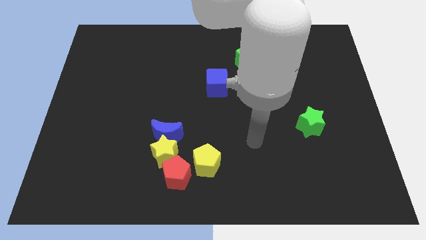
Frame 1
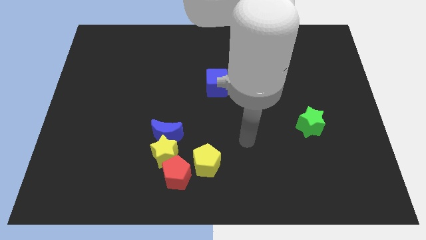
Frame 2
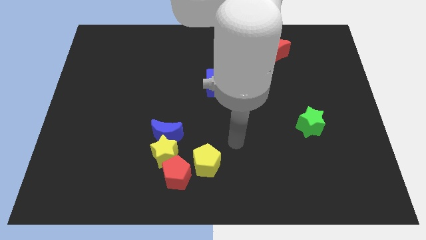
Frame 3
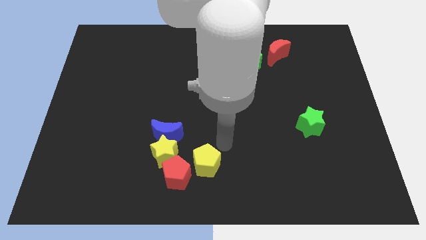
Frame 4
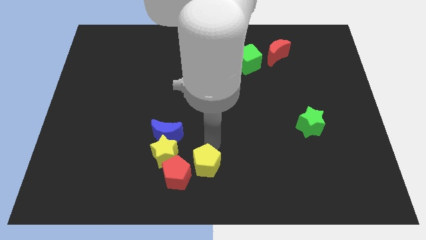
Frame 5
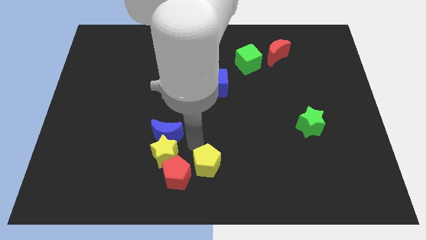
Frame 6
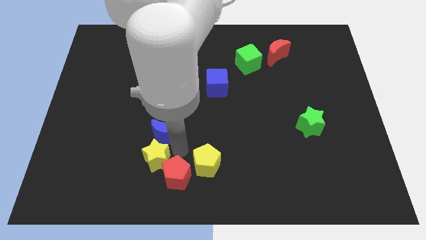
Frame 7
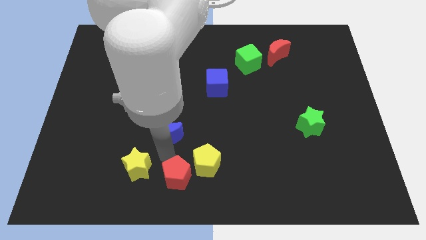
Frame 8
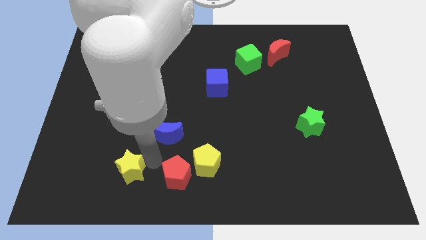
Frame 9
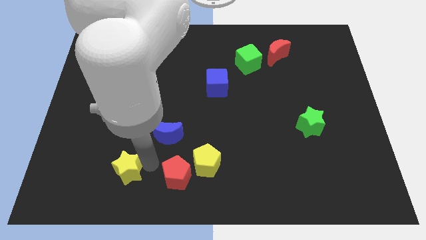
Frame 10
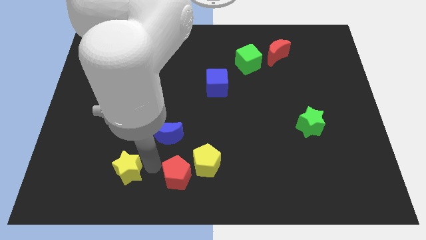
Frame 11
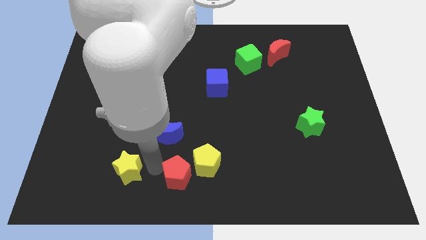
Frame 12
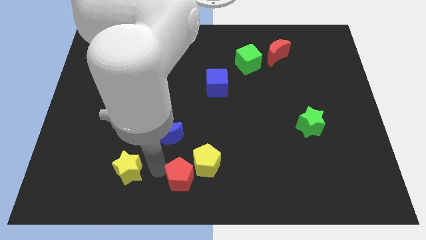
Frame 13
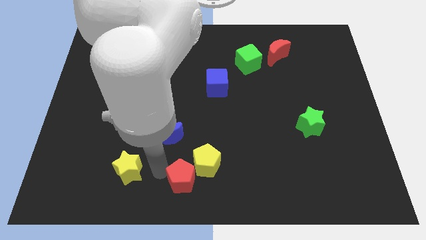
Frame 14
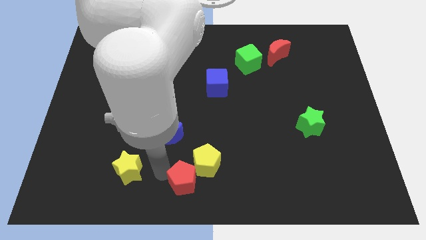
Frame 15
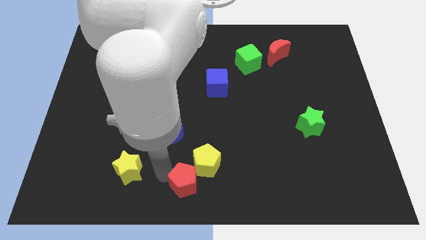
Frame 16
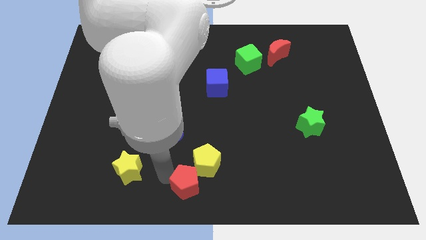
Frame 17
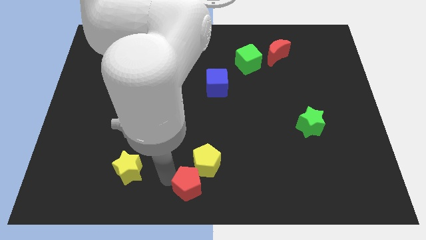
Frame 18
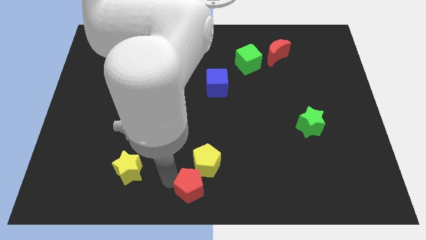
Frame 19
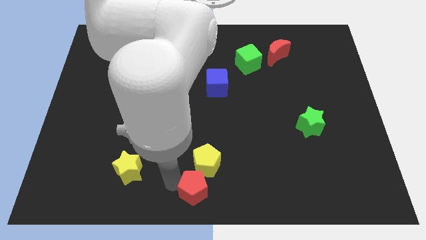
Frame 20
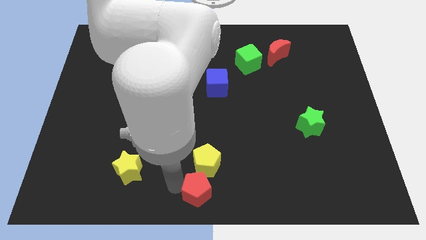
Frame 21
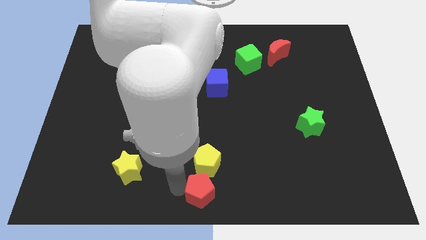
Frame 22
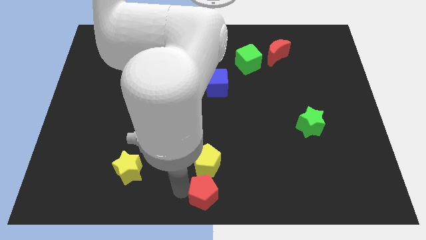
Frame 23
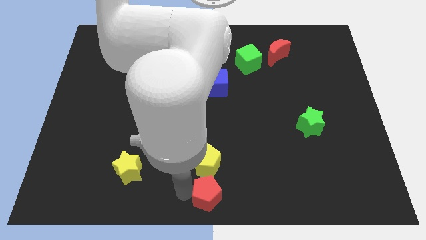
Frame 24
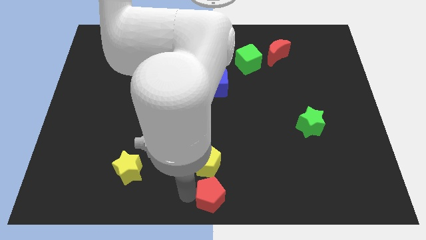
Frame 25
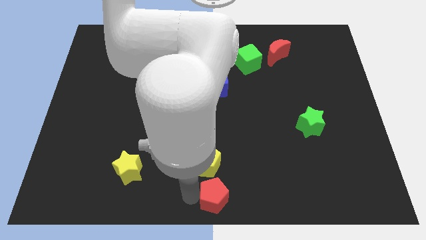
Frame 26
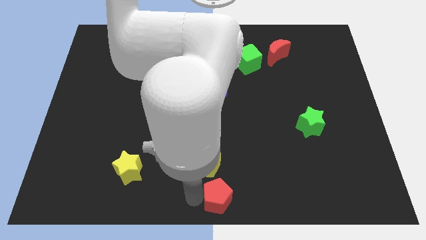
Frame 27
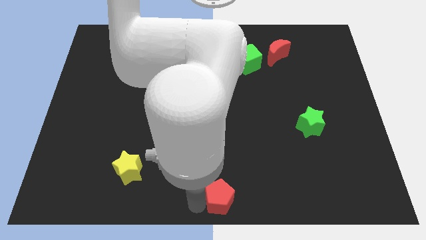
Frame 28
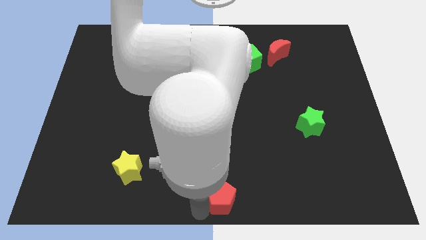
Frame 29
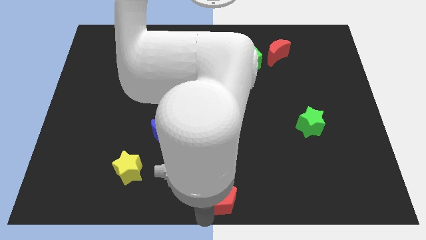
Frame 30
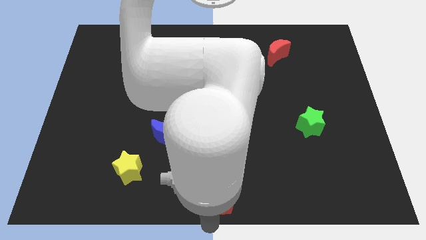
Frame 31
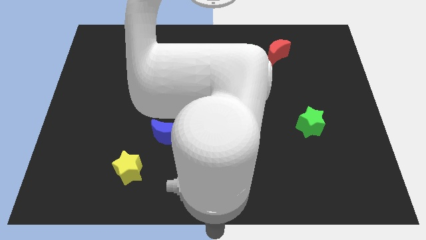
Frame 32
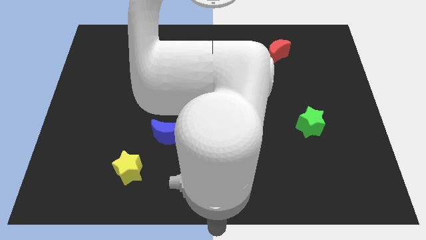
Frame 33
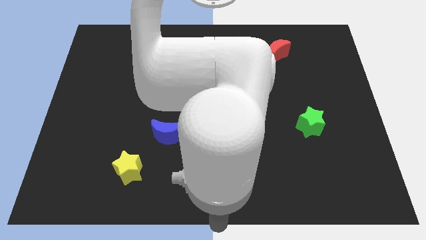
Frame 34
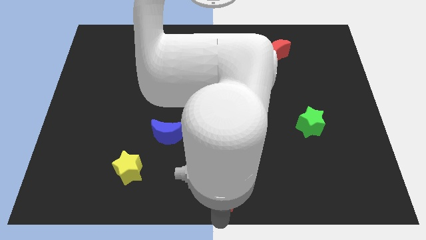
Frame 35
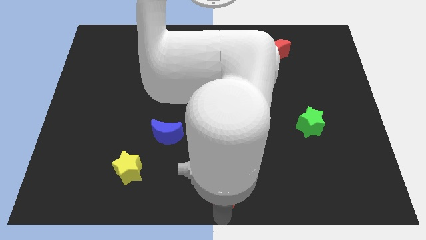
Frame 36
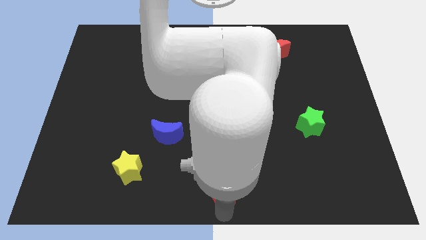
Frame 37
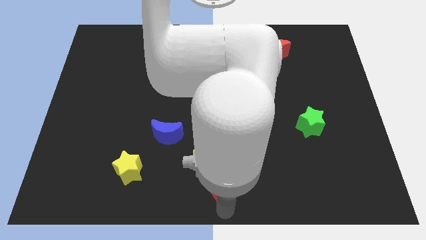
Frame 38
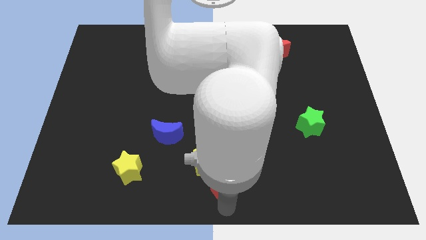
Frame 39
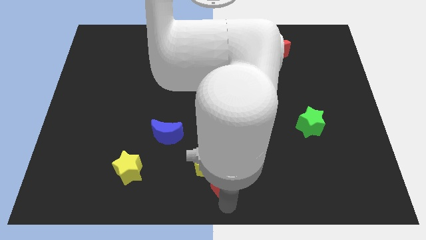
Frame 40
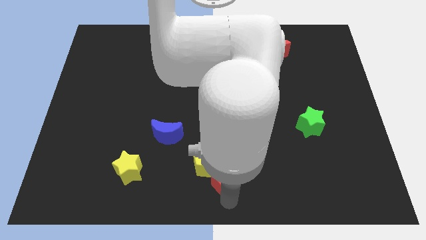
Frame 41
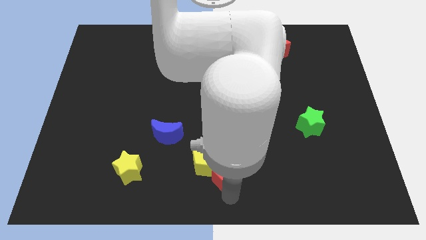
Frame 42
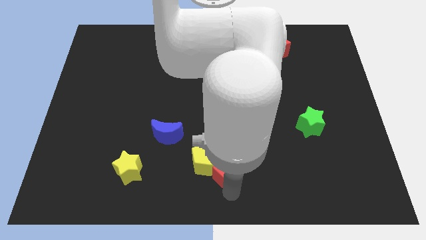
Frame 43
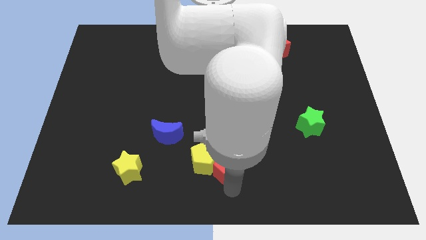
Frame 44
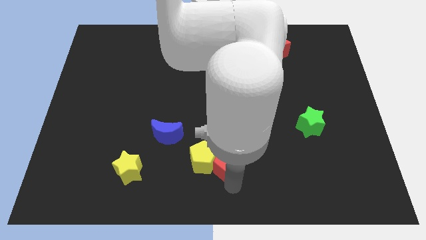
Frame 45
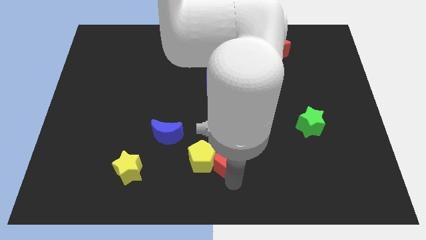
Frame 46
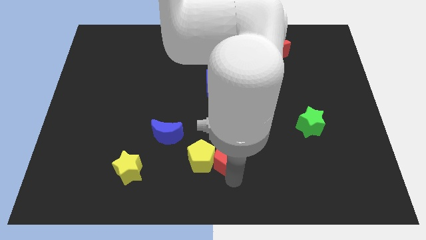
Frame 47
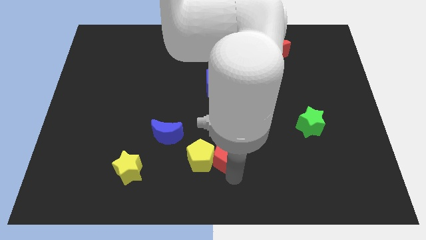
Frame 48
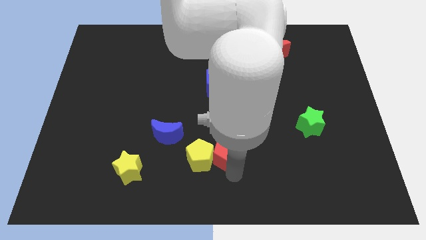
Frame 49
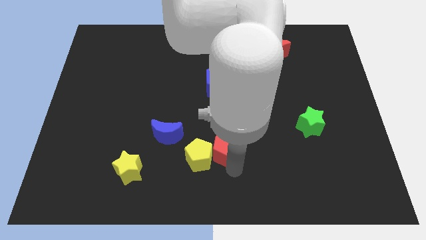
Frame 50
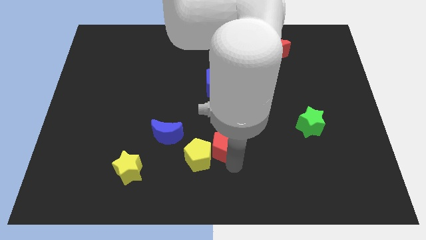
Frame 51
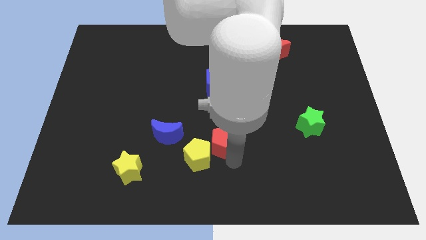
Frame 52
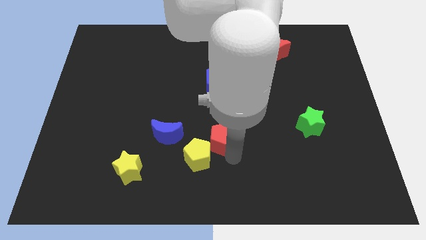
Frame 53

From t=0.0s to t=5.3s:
slide the red pentagon to the top side of the yellow pentagon

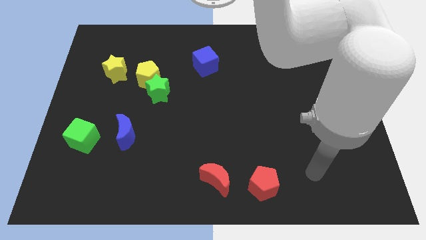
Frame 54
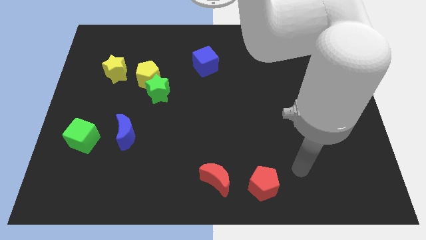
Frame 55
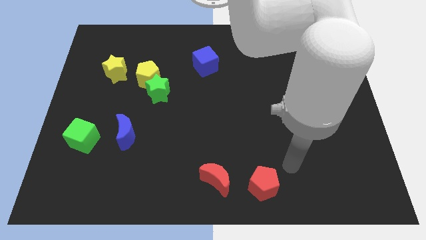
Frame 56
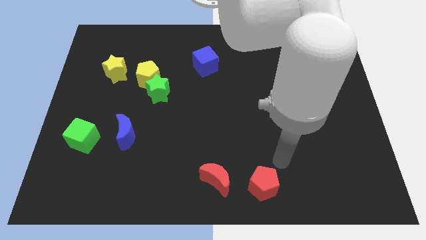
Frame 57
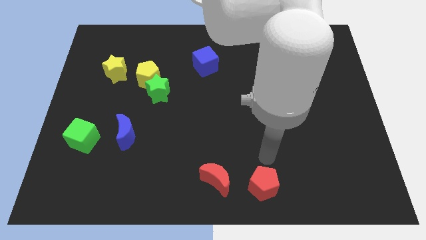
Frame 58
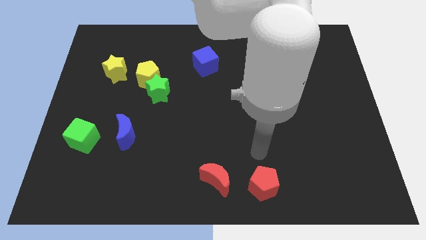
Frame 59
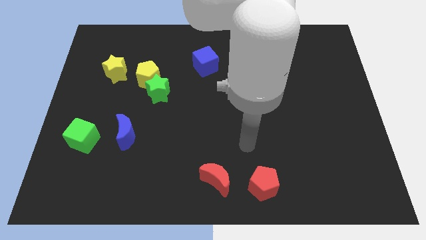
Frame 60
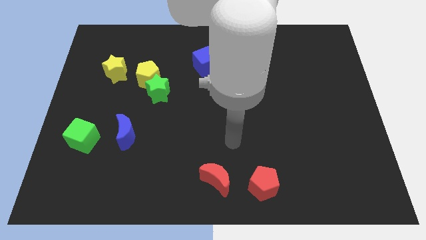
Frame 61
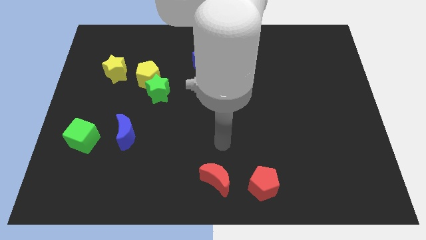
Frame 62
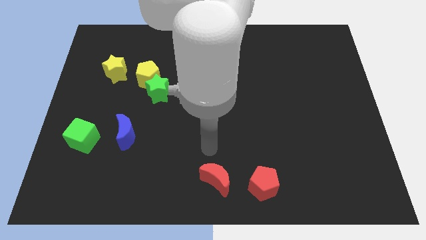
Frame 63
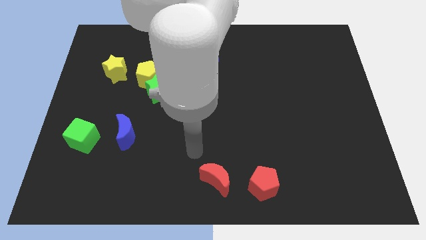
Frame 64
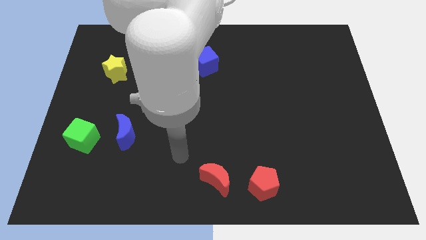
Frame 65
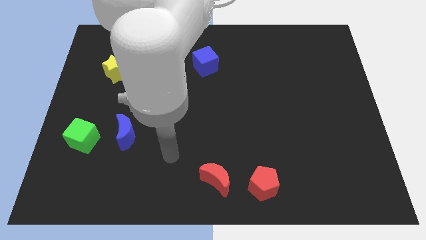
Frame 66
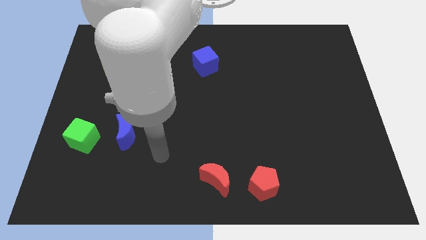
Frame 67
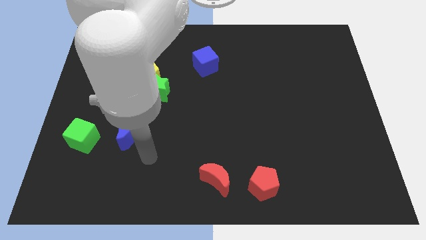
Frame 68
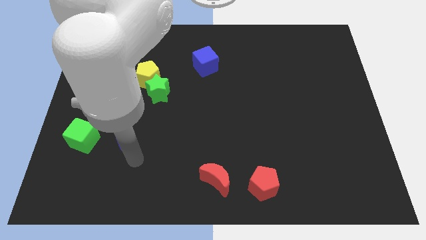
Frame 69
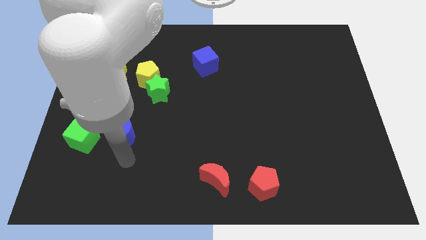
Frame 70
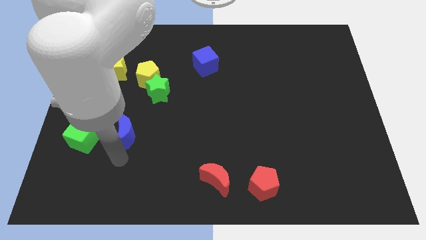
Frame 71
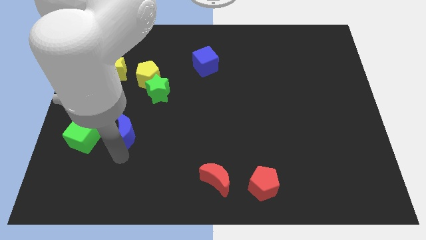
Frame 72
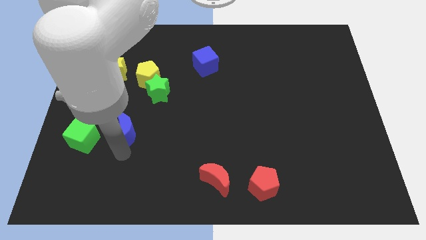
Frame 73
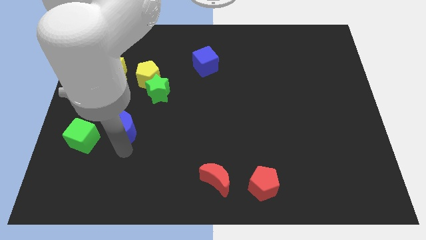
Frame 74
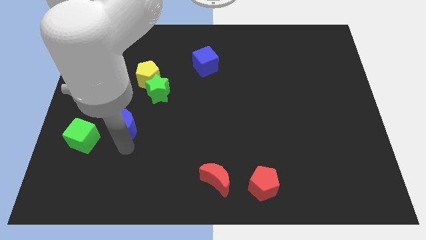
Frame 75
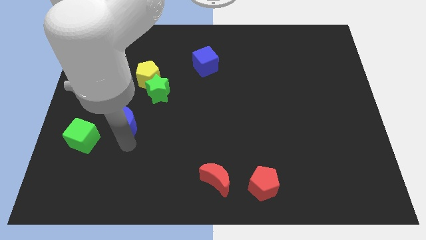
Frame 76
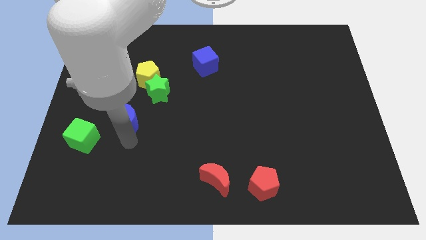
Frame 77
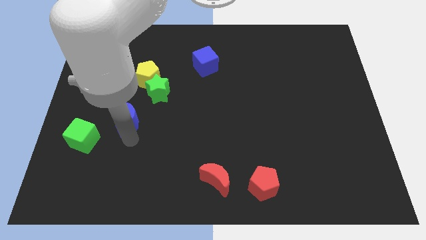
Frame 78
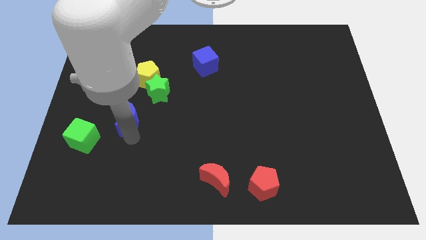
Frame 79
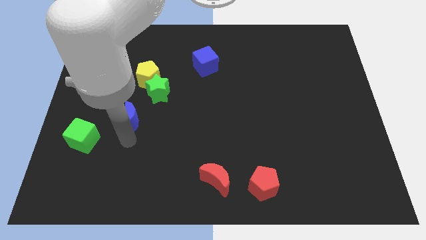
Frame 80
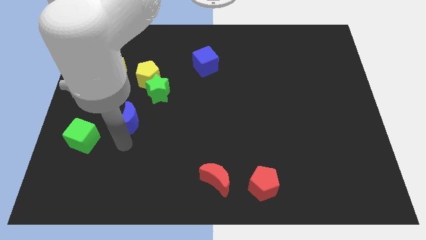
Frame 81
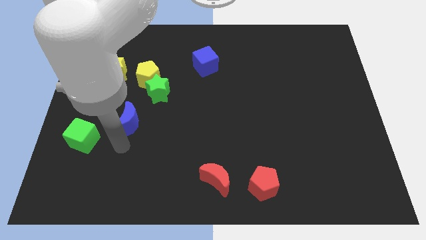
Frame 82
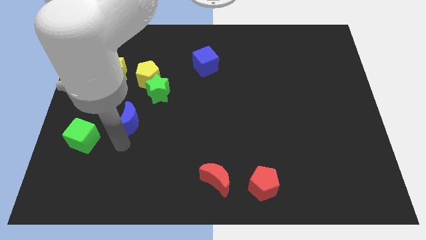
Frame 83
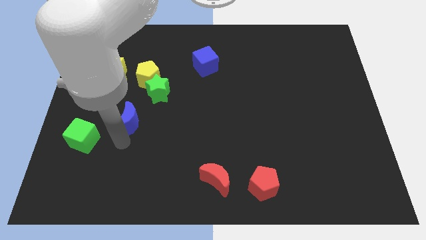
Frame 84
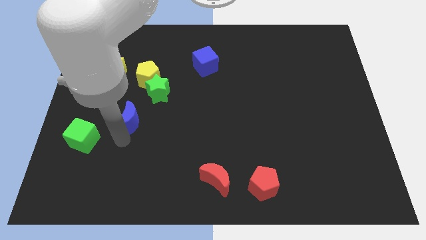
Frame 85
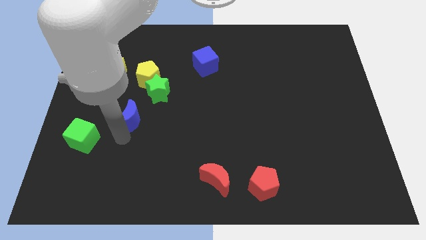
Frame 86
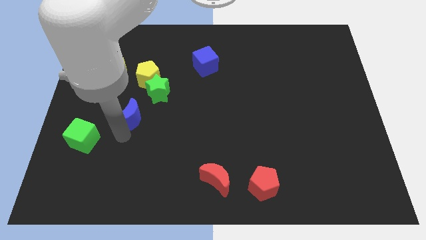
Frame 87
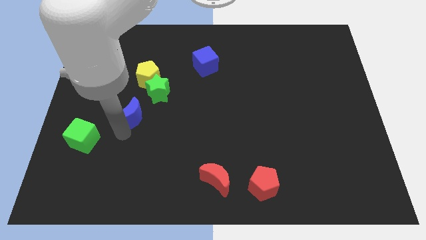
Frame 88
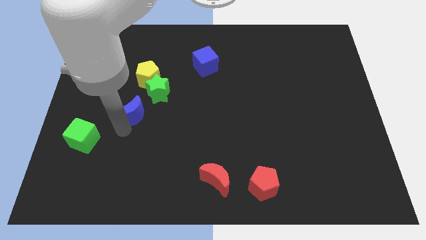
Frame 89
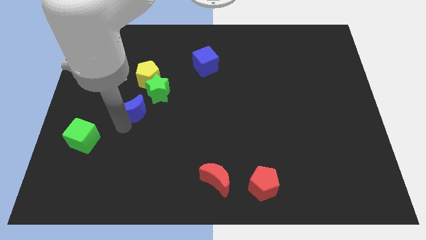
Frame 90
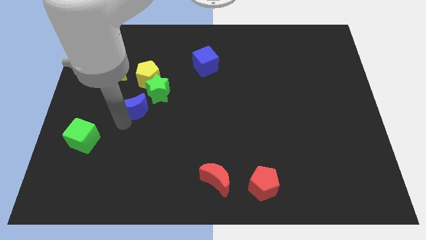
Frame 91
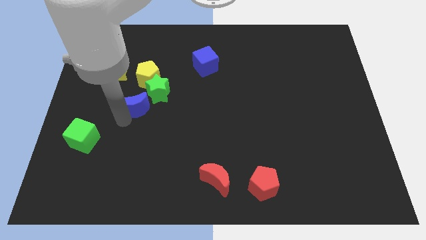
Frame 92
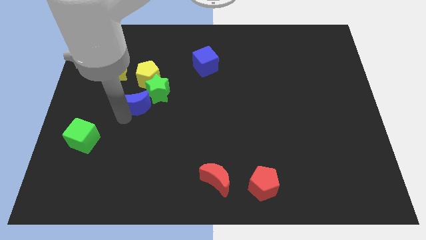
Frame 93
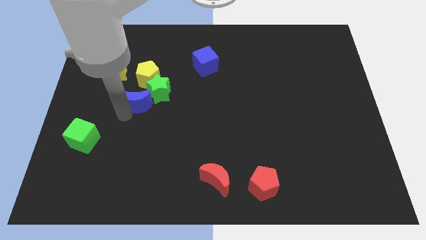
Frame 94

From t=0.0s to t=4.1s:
put the blue moon to the bottom right of the yellow star
